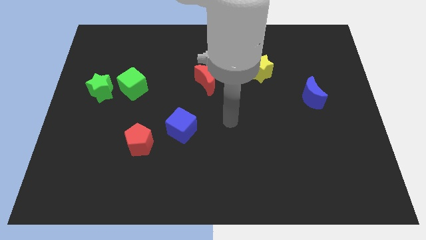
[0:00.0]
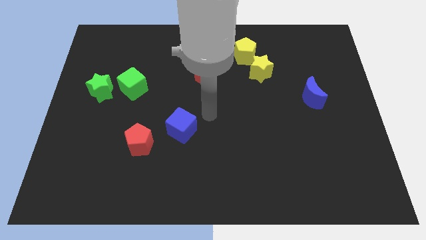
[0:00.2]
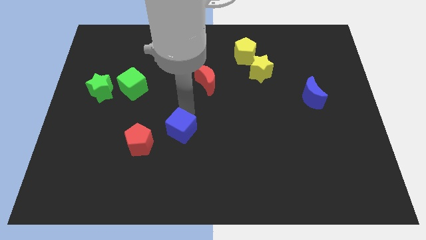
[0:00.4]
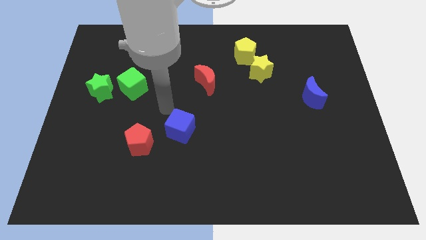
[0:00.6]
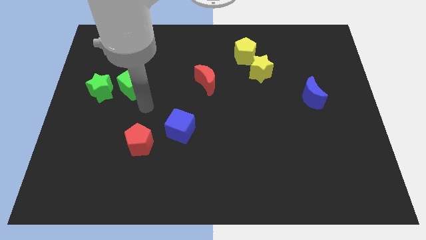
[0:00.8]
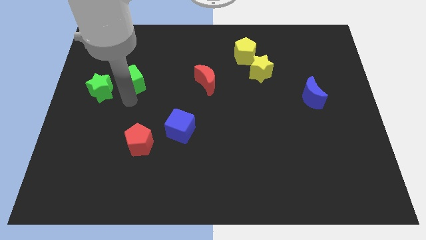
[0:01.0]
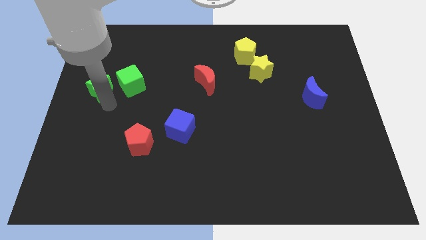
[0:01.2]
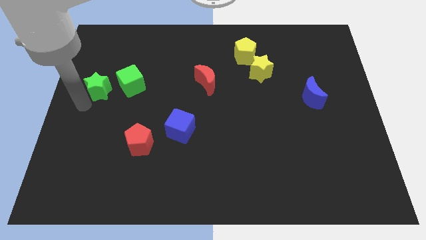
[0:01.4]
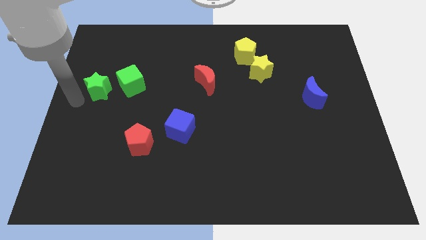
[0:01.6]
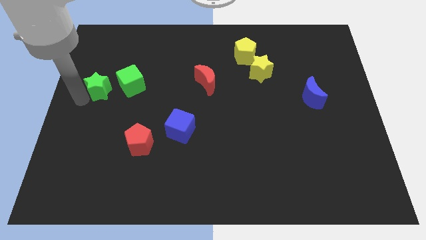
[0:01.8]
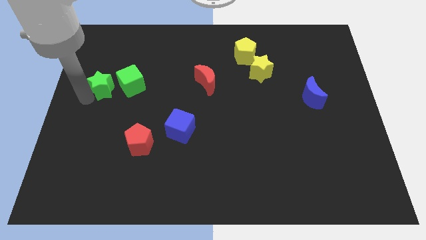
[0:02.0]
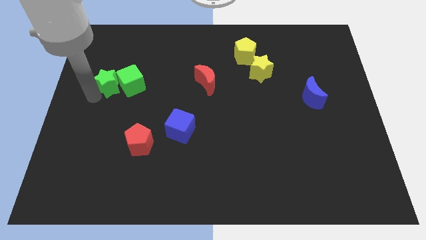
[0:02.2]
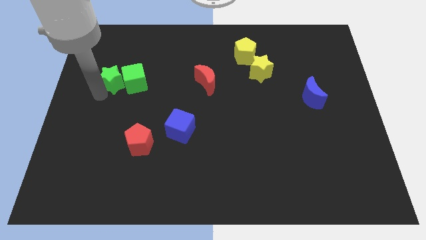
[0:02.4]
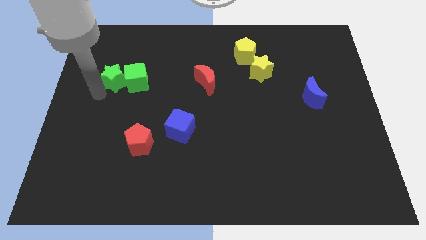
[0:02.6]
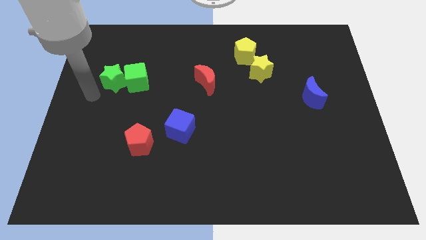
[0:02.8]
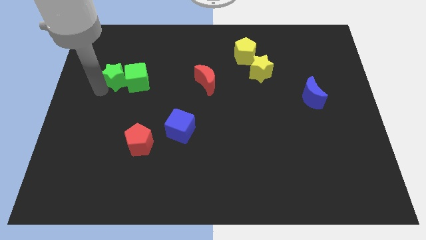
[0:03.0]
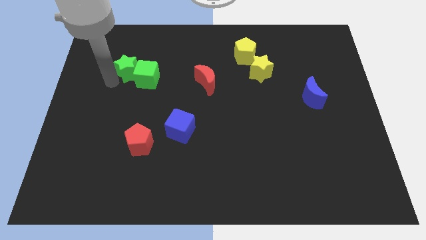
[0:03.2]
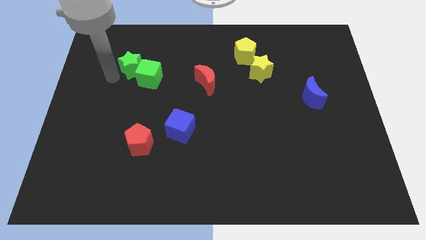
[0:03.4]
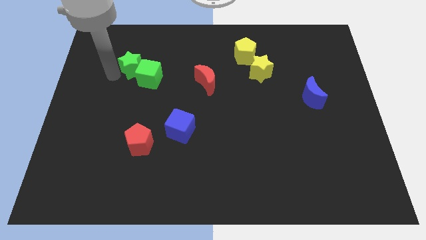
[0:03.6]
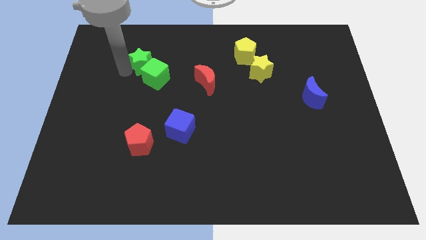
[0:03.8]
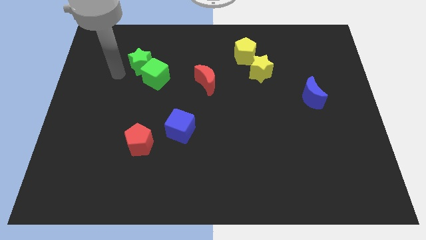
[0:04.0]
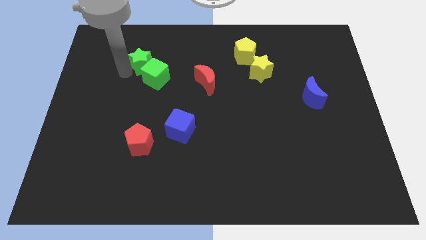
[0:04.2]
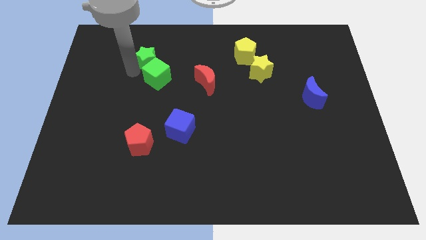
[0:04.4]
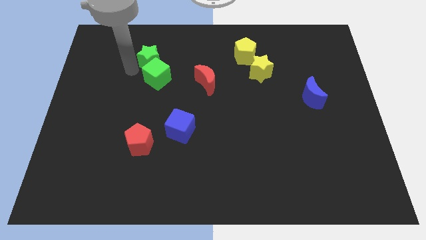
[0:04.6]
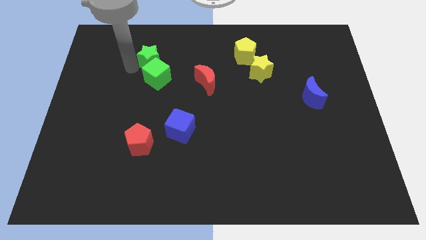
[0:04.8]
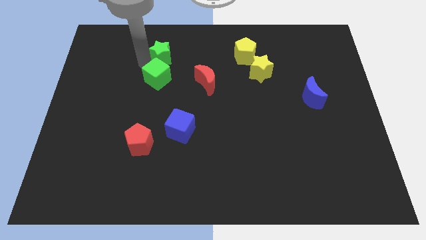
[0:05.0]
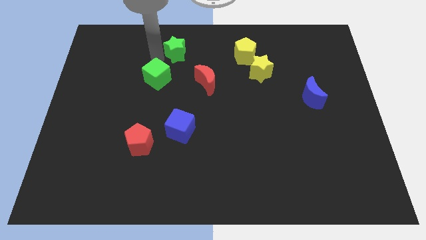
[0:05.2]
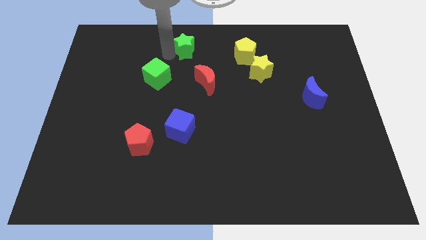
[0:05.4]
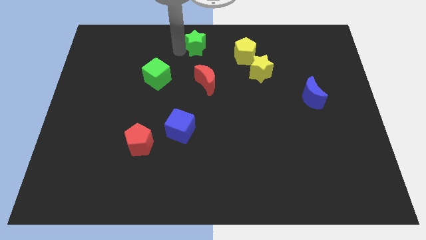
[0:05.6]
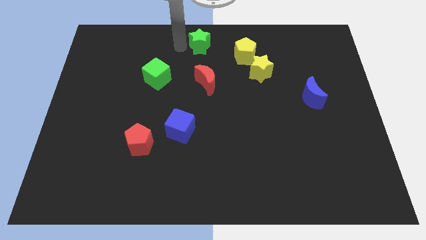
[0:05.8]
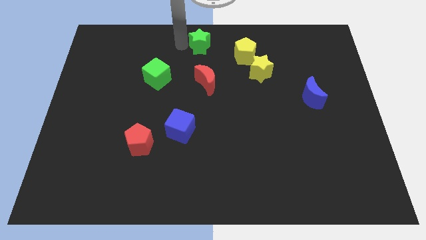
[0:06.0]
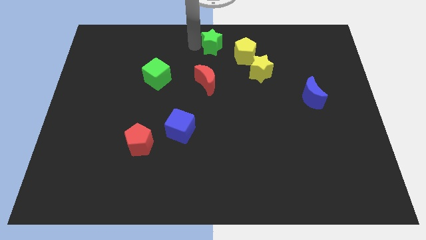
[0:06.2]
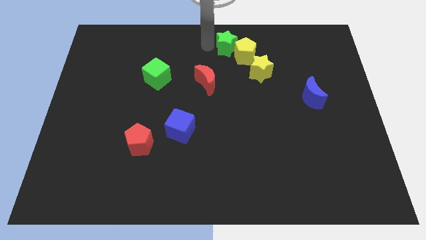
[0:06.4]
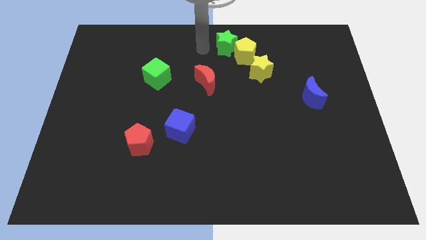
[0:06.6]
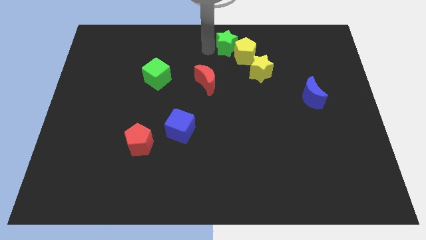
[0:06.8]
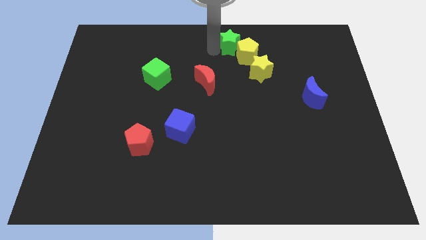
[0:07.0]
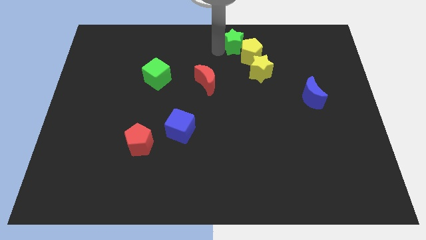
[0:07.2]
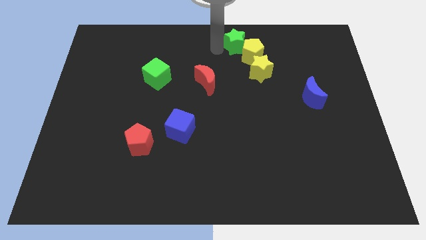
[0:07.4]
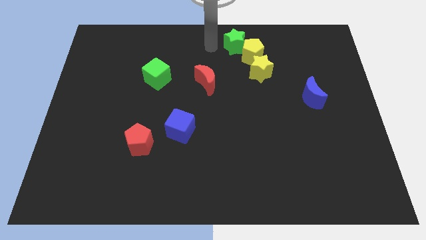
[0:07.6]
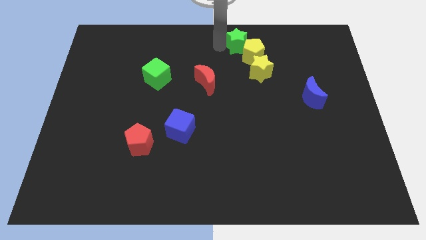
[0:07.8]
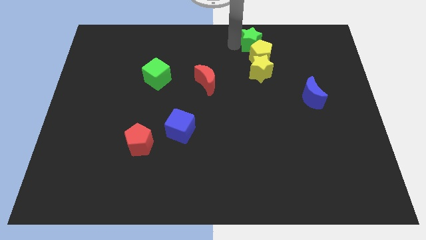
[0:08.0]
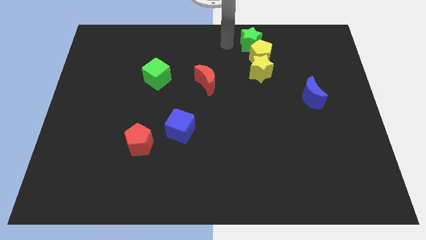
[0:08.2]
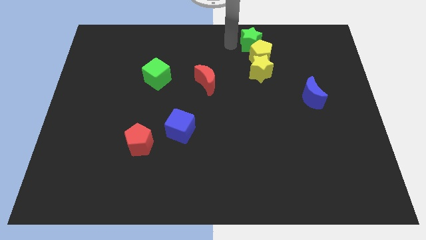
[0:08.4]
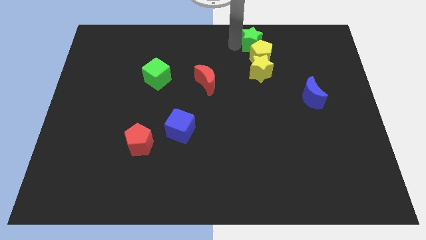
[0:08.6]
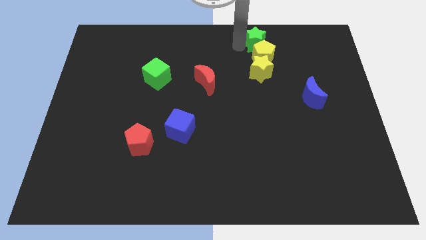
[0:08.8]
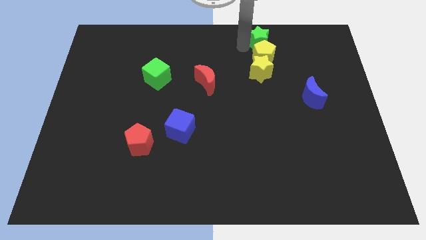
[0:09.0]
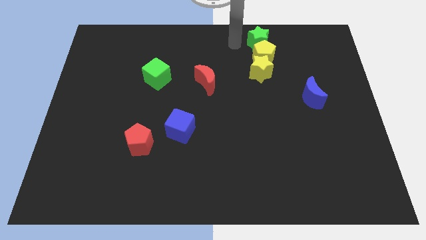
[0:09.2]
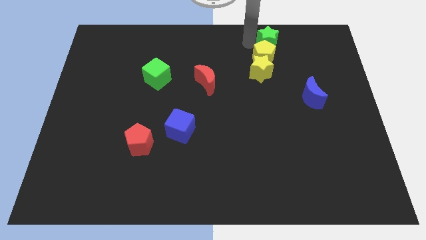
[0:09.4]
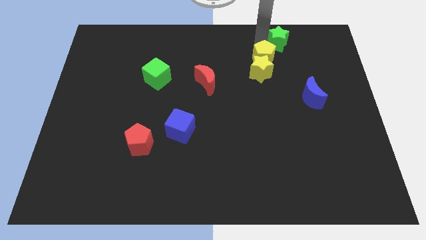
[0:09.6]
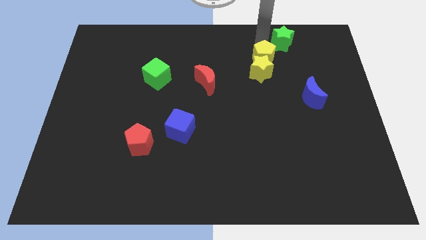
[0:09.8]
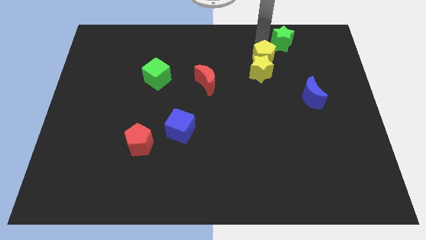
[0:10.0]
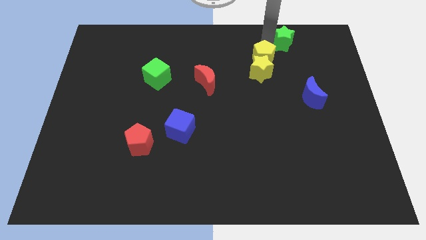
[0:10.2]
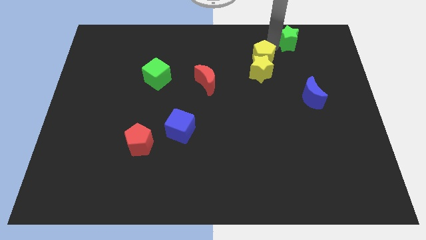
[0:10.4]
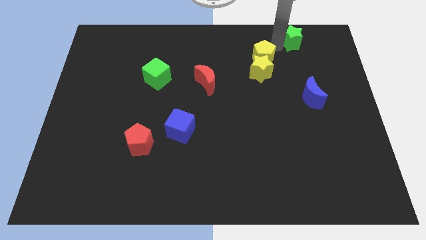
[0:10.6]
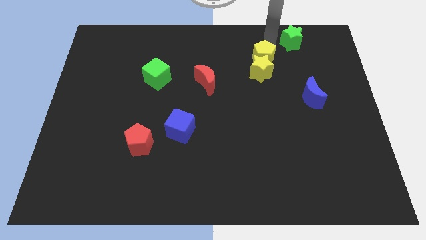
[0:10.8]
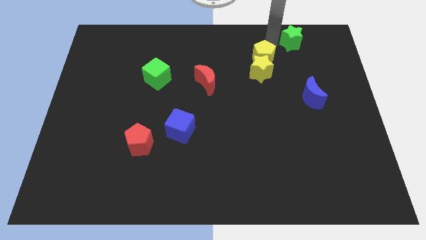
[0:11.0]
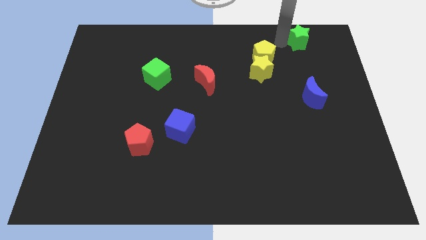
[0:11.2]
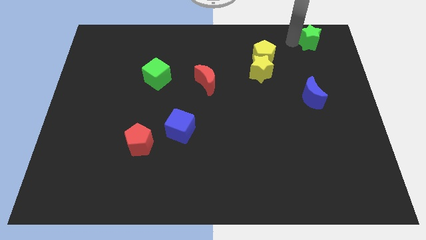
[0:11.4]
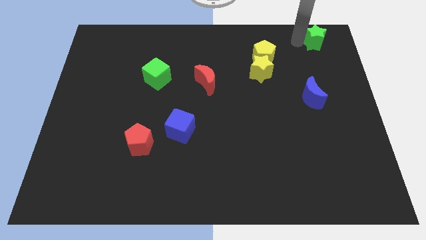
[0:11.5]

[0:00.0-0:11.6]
push the green star to the top right corner

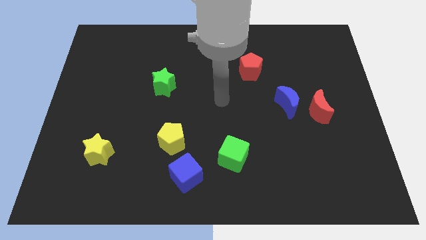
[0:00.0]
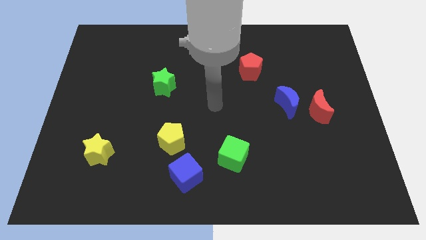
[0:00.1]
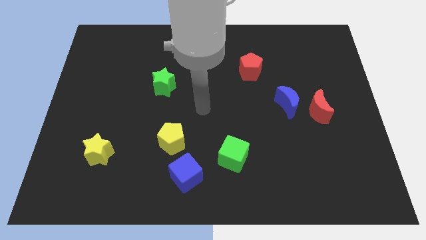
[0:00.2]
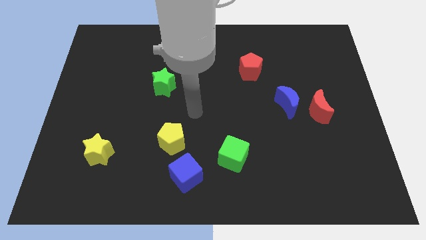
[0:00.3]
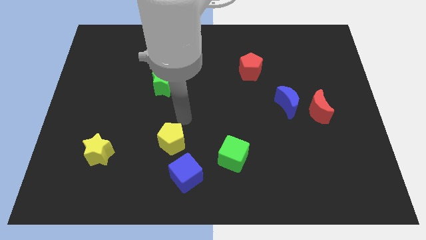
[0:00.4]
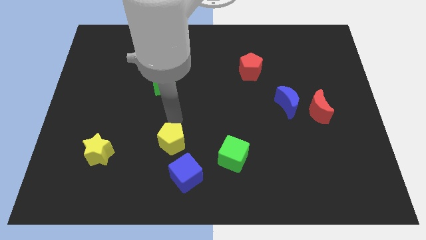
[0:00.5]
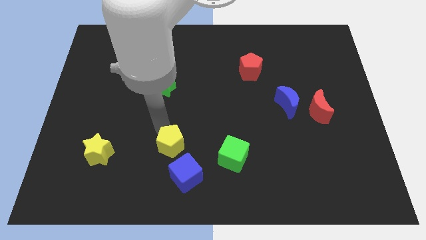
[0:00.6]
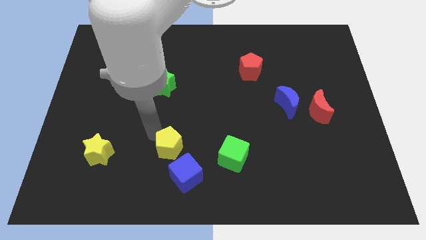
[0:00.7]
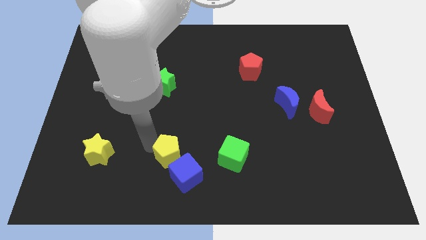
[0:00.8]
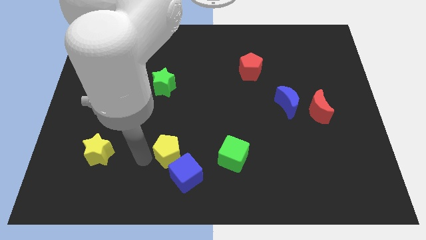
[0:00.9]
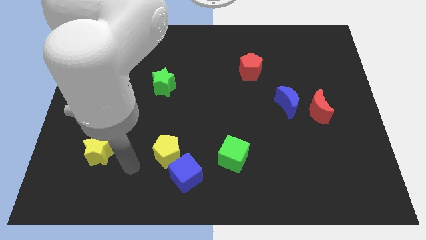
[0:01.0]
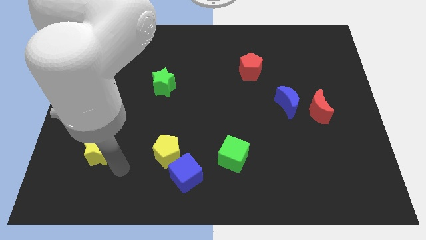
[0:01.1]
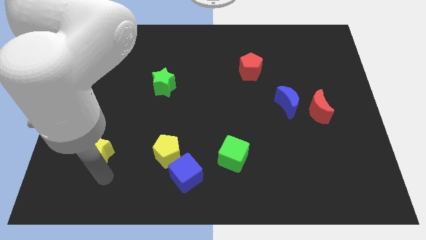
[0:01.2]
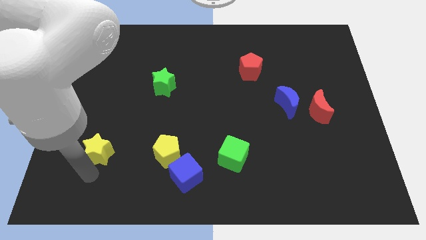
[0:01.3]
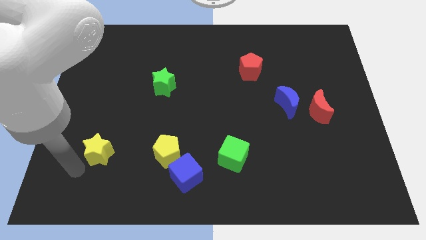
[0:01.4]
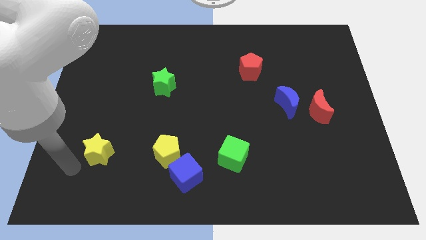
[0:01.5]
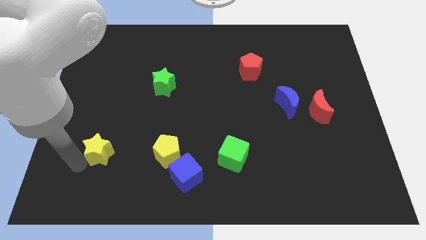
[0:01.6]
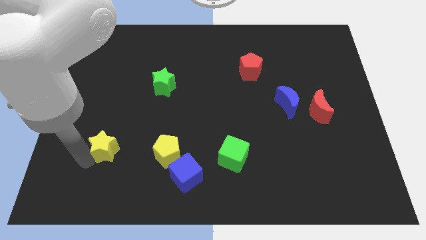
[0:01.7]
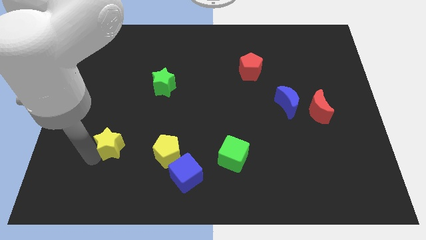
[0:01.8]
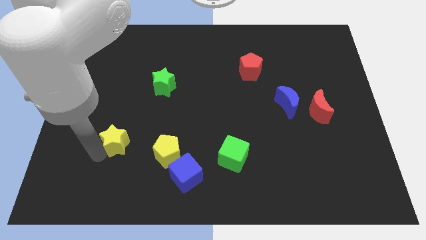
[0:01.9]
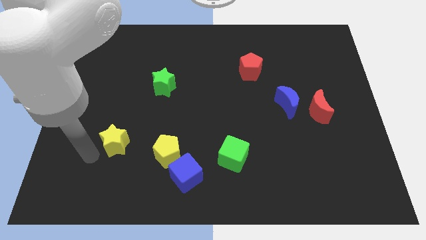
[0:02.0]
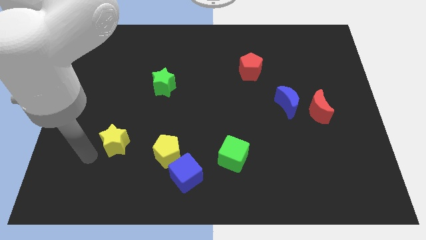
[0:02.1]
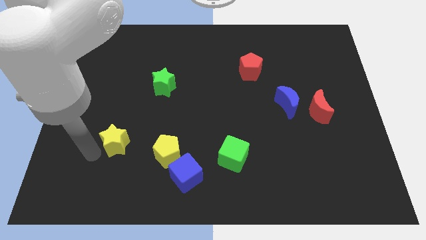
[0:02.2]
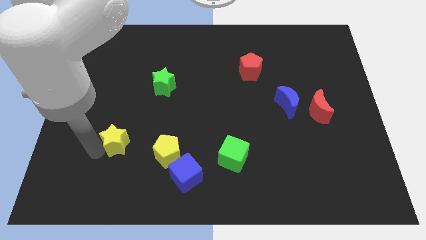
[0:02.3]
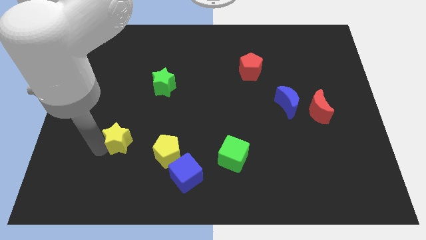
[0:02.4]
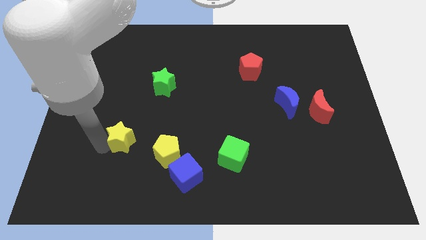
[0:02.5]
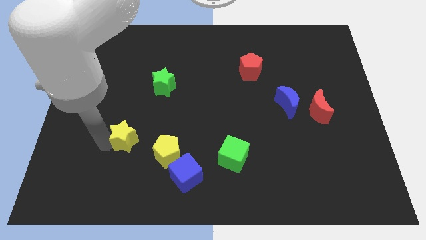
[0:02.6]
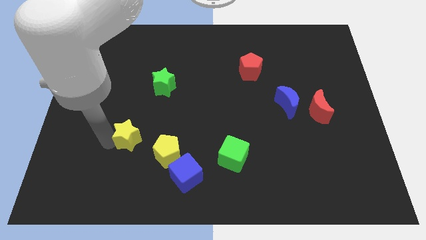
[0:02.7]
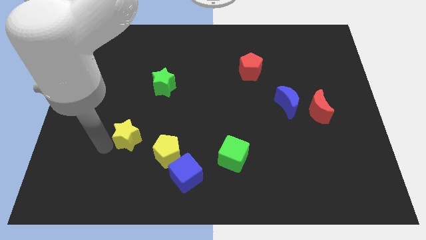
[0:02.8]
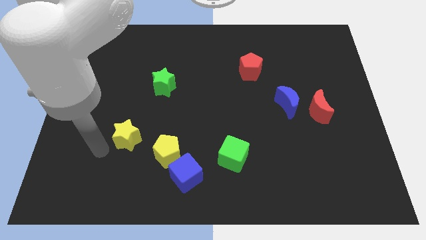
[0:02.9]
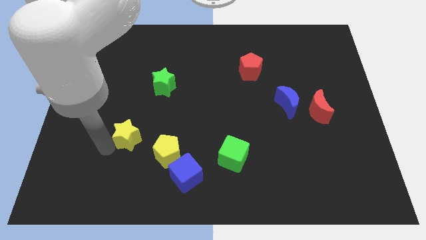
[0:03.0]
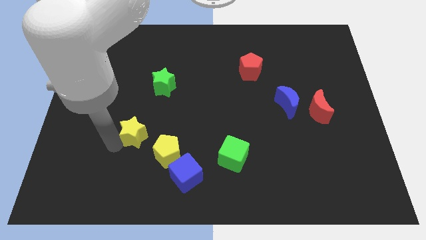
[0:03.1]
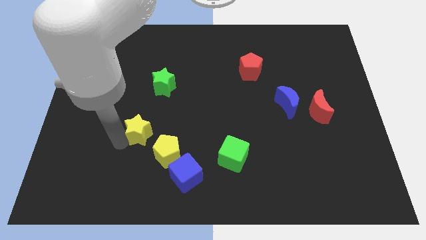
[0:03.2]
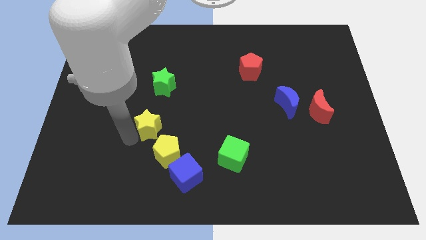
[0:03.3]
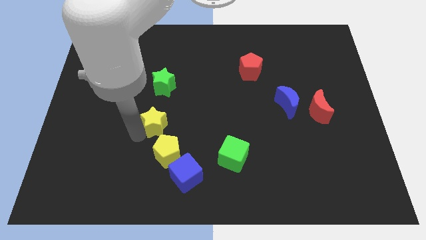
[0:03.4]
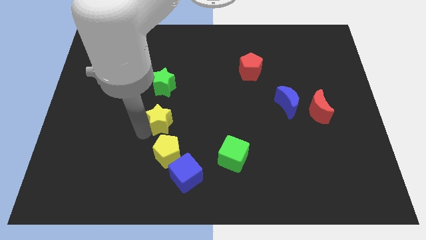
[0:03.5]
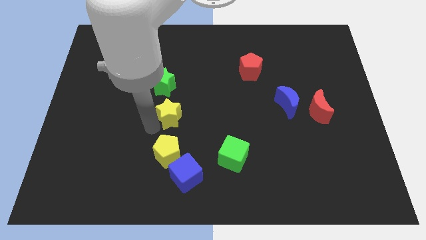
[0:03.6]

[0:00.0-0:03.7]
push the yellow star to the center
